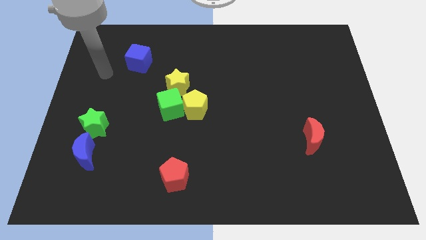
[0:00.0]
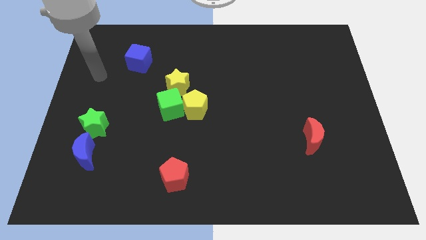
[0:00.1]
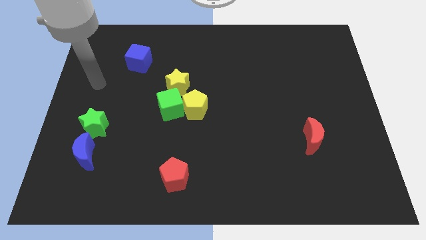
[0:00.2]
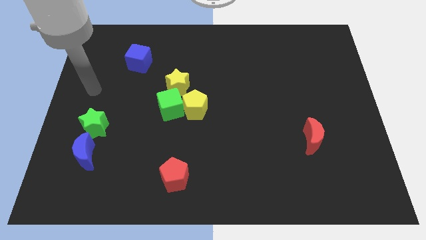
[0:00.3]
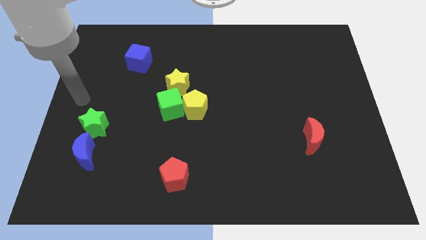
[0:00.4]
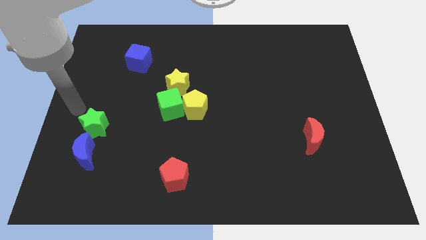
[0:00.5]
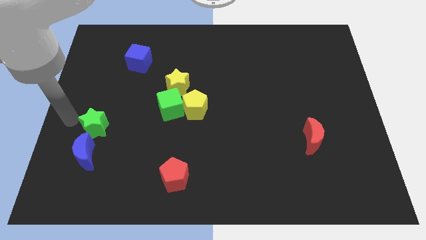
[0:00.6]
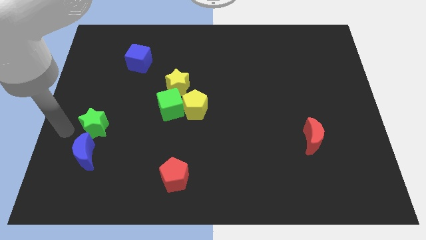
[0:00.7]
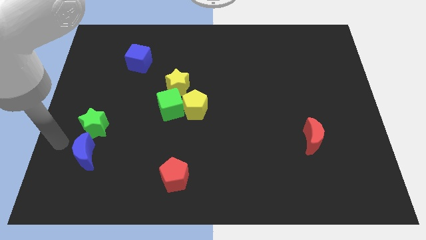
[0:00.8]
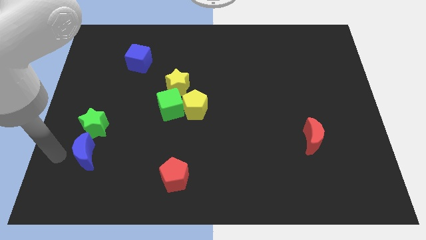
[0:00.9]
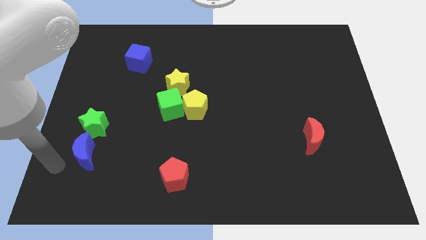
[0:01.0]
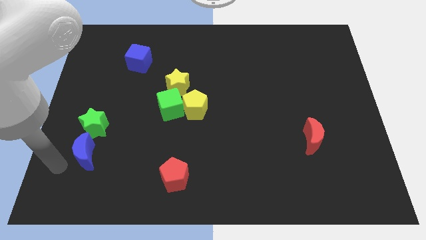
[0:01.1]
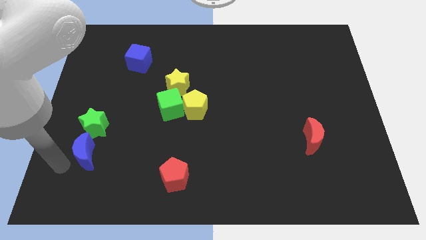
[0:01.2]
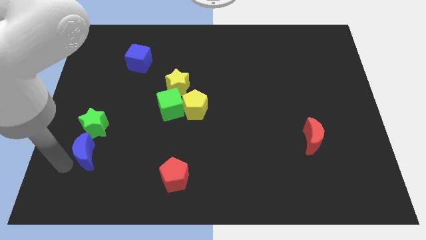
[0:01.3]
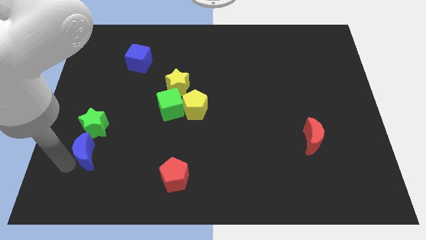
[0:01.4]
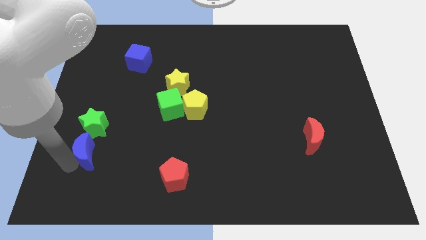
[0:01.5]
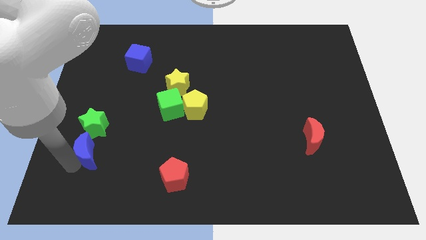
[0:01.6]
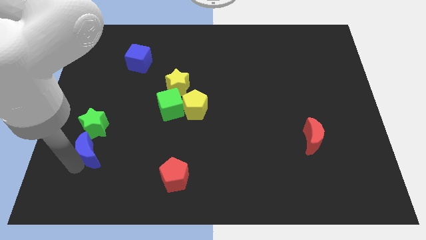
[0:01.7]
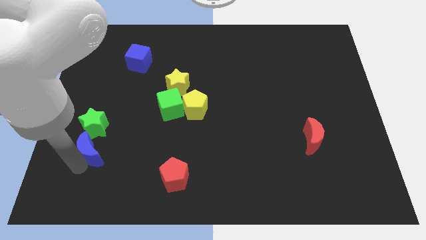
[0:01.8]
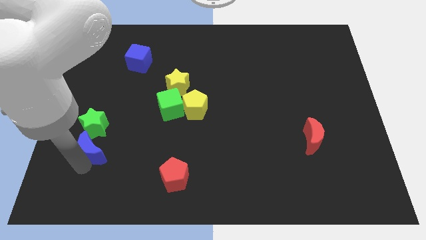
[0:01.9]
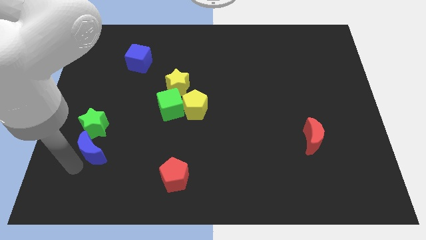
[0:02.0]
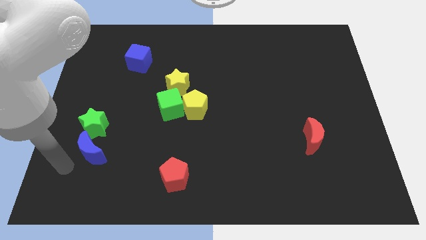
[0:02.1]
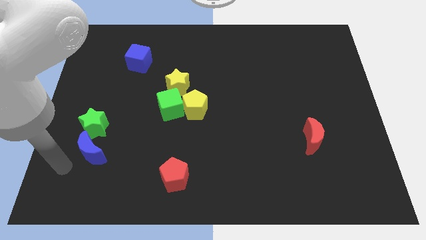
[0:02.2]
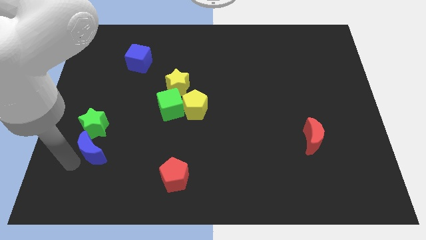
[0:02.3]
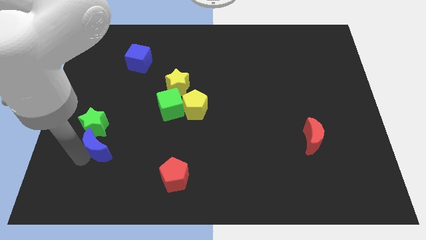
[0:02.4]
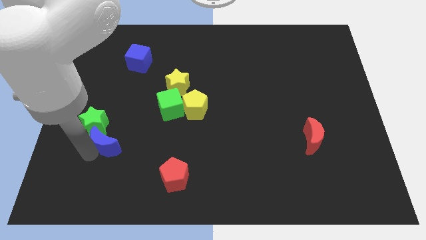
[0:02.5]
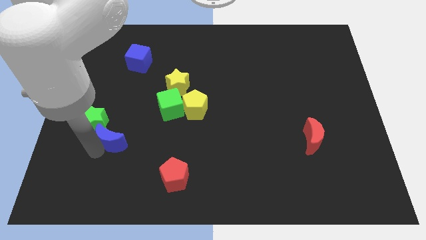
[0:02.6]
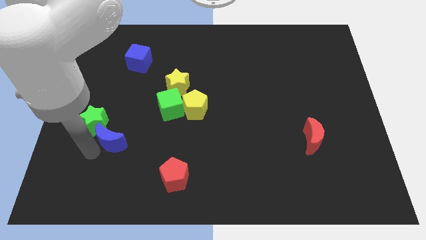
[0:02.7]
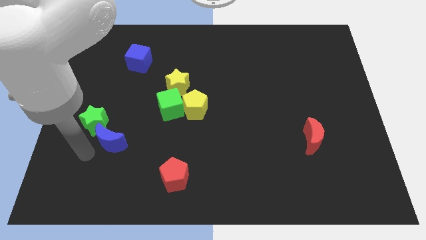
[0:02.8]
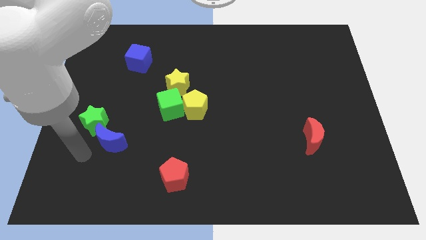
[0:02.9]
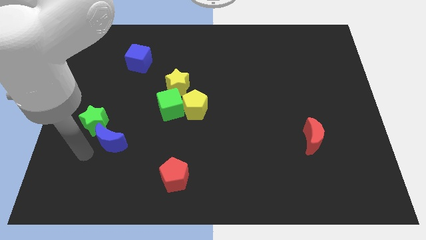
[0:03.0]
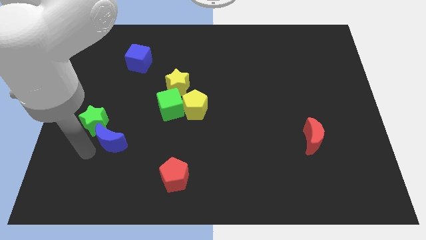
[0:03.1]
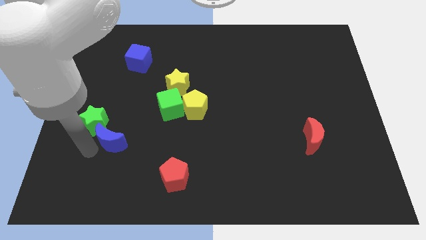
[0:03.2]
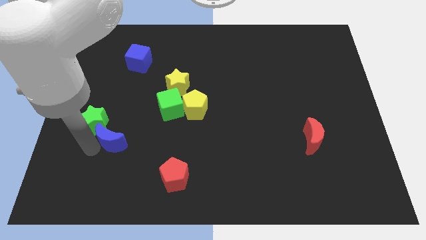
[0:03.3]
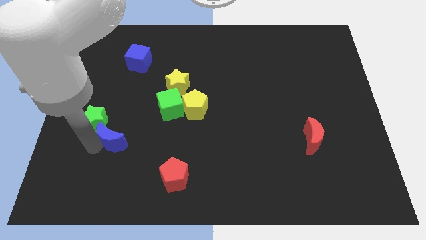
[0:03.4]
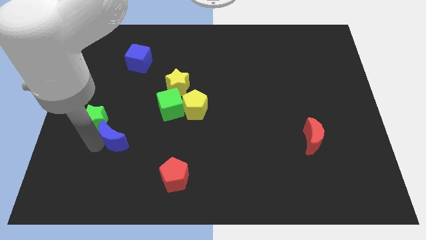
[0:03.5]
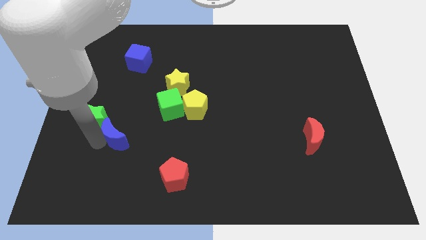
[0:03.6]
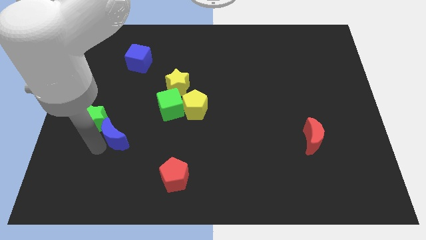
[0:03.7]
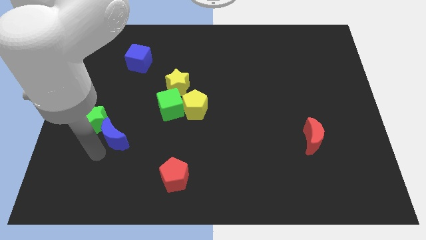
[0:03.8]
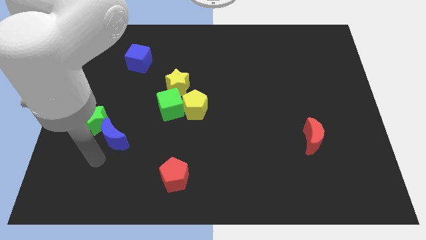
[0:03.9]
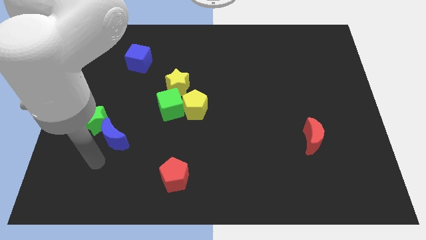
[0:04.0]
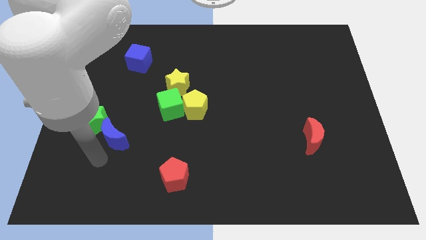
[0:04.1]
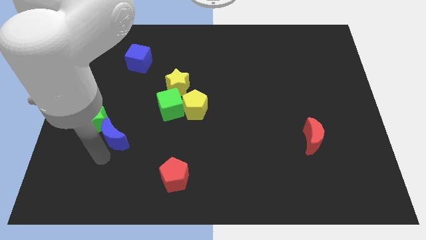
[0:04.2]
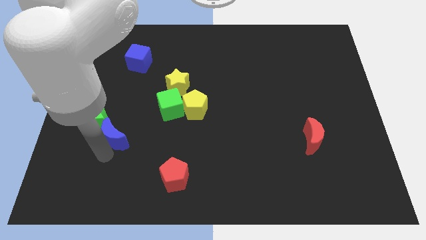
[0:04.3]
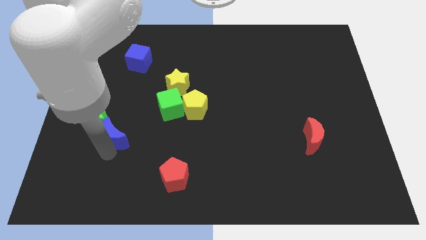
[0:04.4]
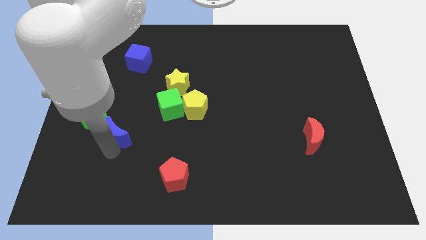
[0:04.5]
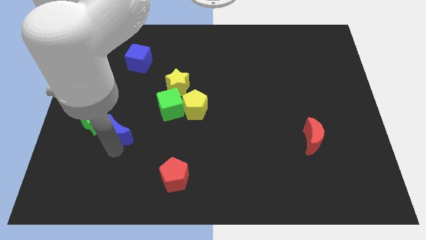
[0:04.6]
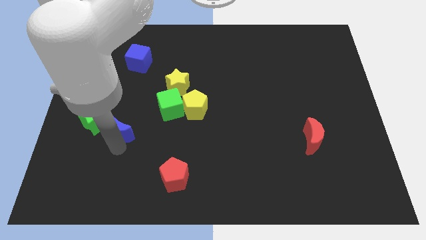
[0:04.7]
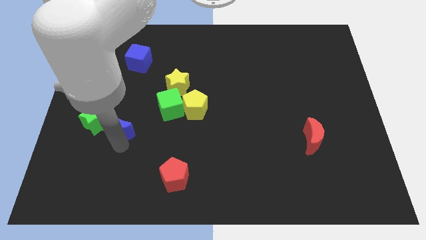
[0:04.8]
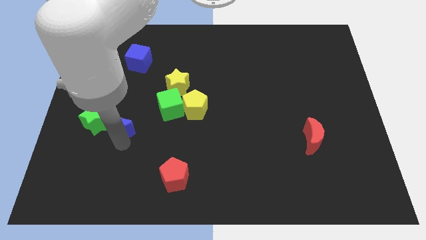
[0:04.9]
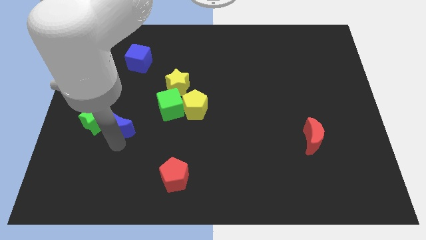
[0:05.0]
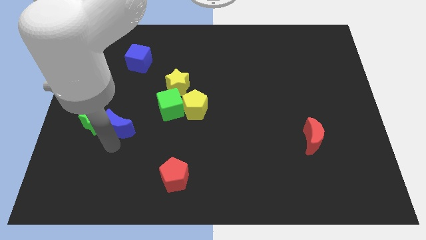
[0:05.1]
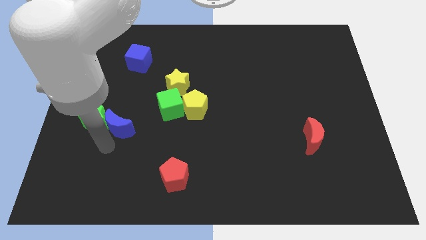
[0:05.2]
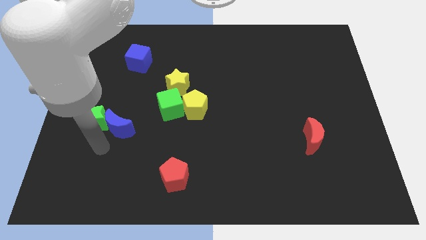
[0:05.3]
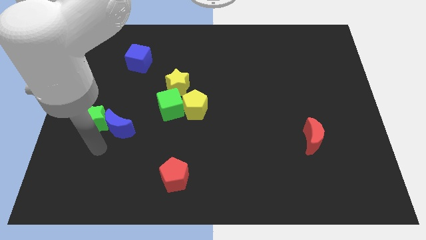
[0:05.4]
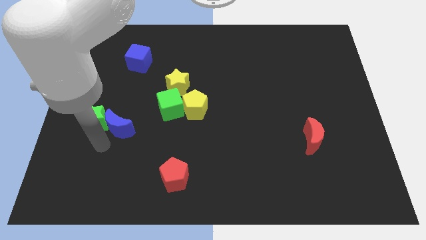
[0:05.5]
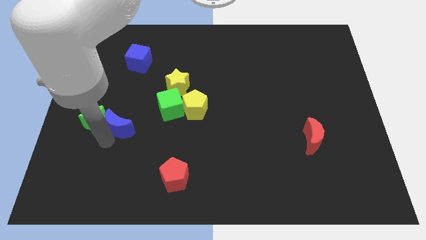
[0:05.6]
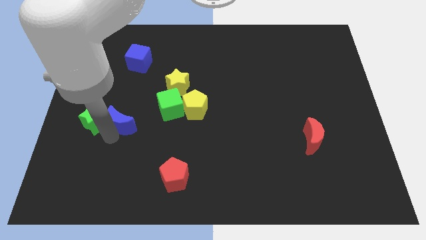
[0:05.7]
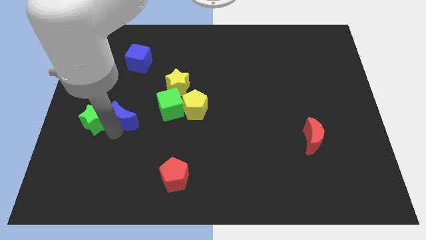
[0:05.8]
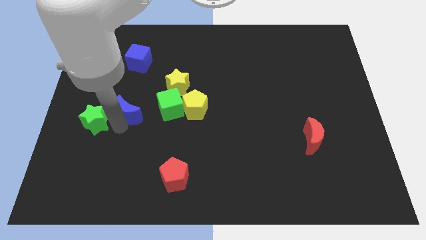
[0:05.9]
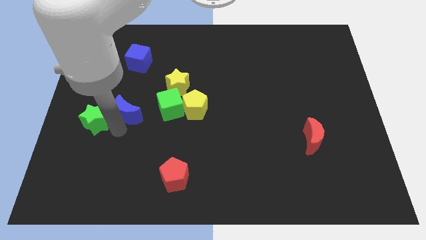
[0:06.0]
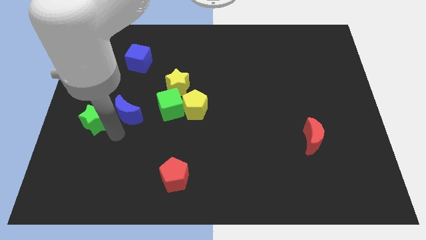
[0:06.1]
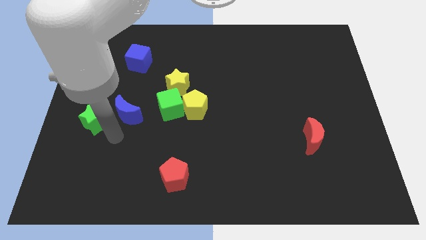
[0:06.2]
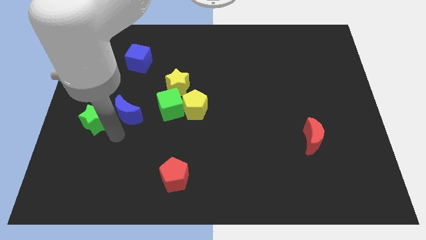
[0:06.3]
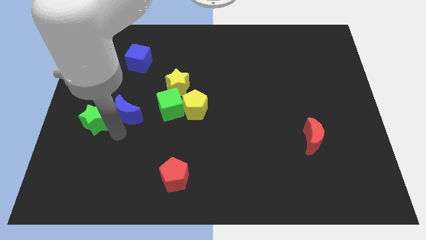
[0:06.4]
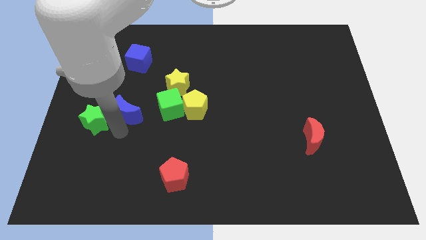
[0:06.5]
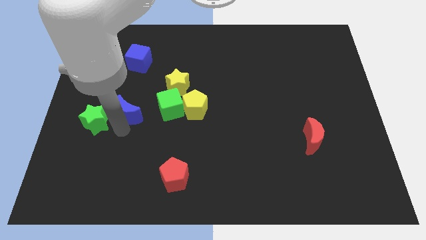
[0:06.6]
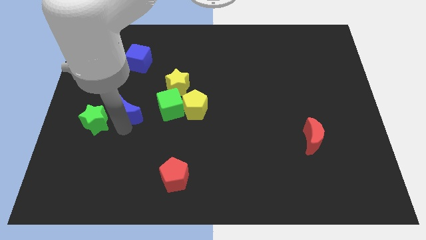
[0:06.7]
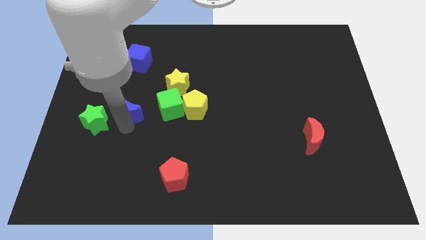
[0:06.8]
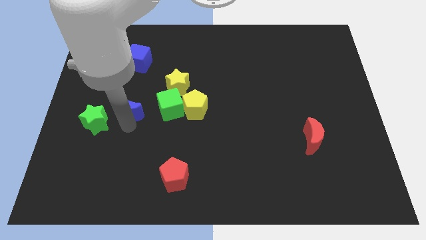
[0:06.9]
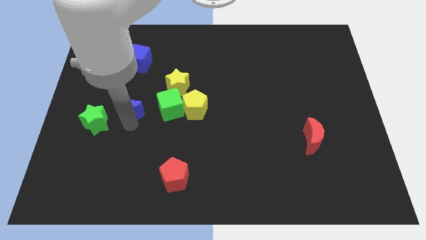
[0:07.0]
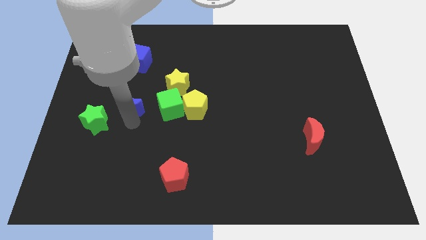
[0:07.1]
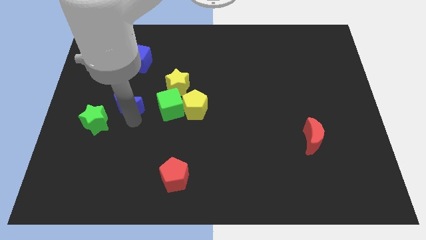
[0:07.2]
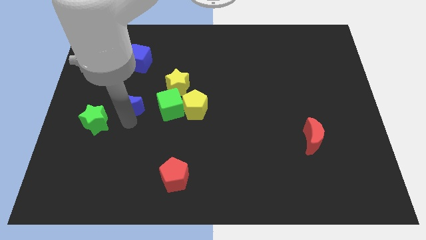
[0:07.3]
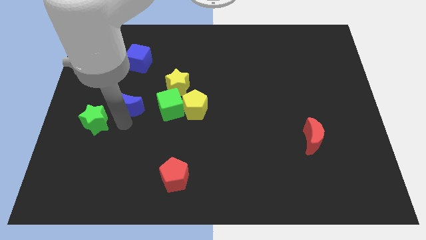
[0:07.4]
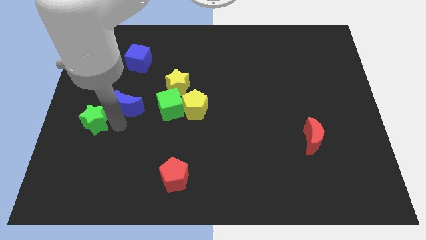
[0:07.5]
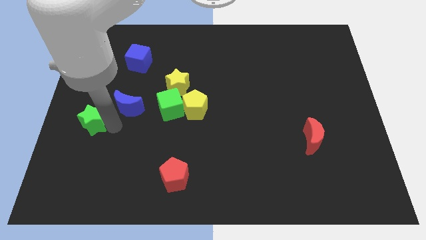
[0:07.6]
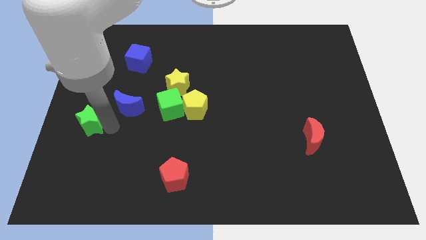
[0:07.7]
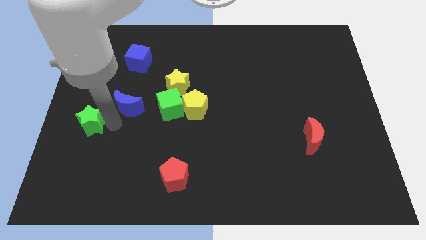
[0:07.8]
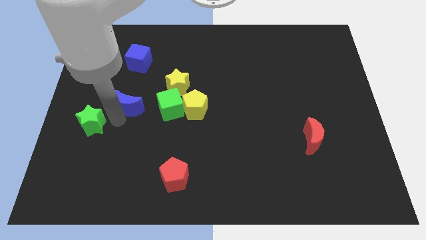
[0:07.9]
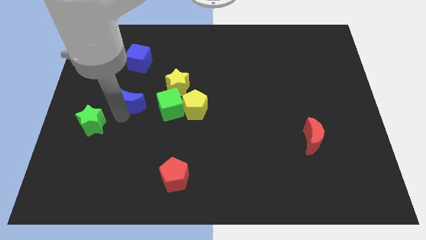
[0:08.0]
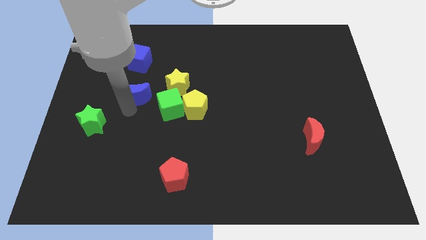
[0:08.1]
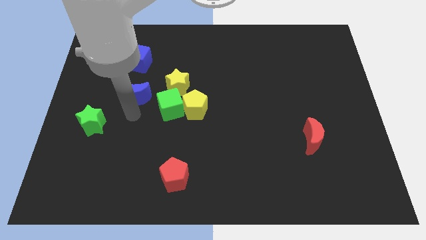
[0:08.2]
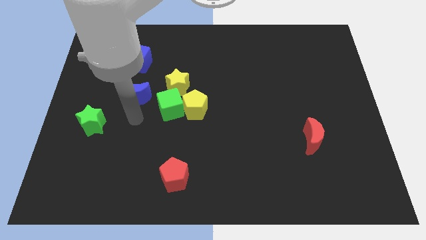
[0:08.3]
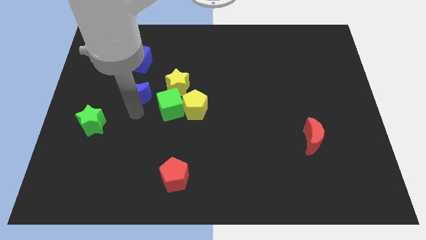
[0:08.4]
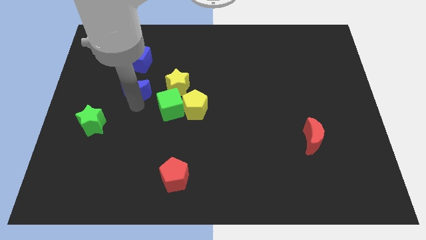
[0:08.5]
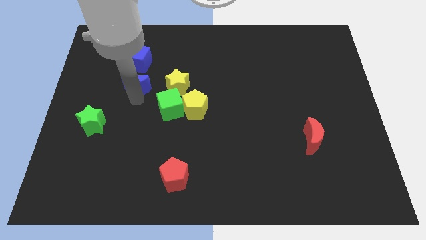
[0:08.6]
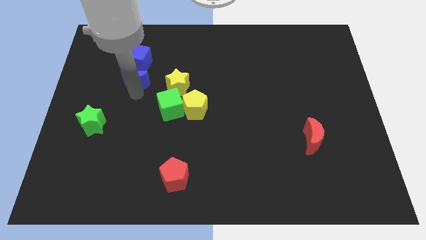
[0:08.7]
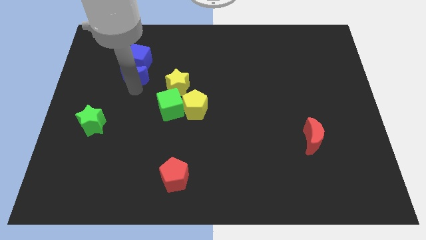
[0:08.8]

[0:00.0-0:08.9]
move the blue moon next to the blue cube
